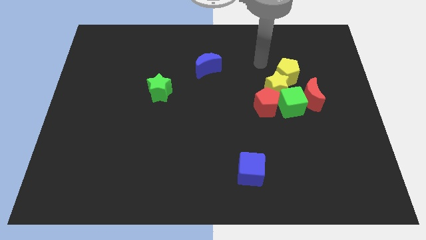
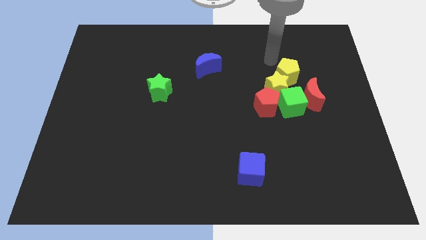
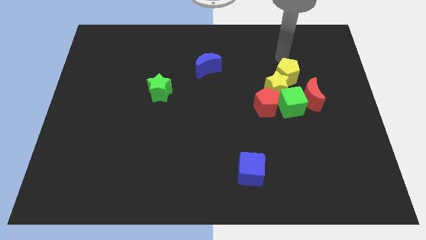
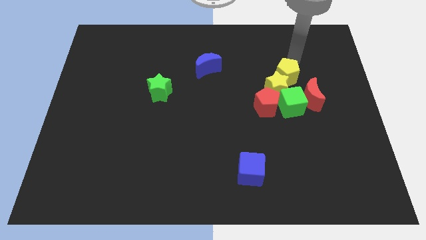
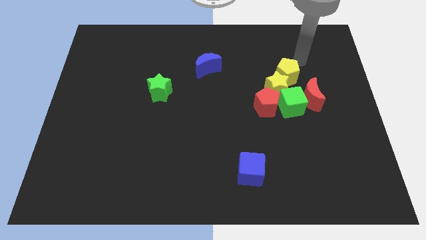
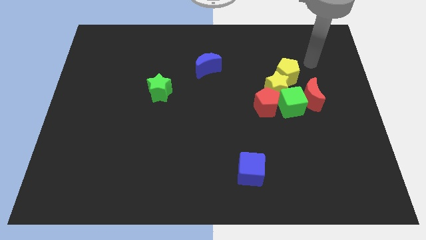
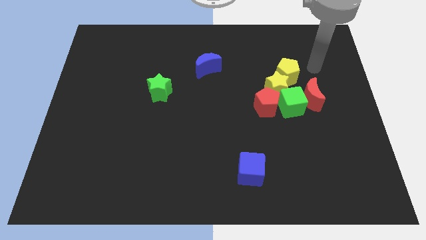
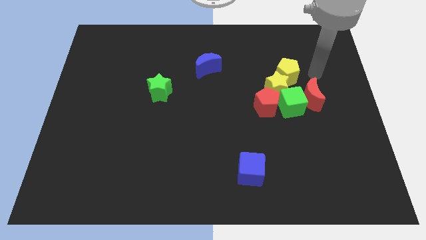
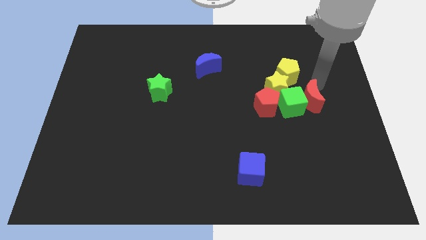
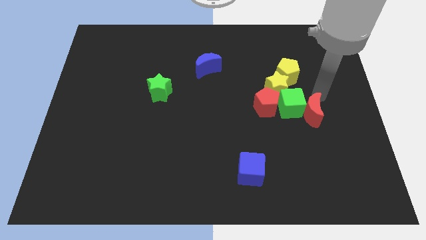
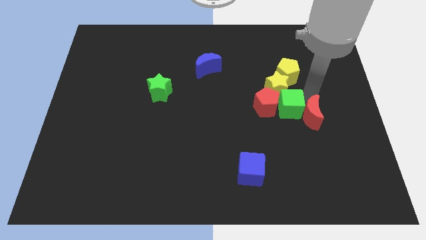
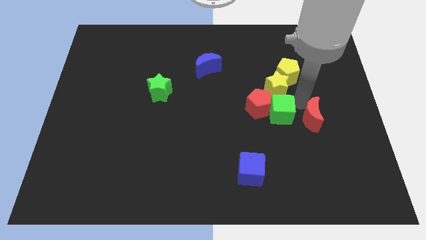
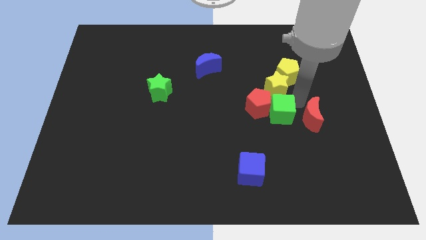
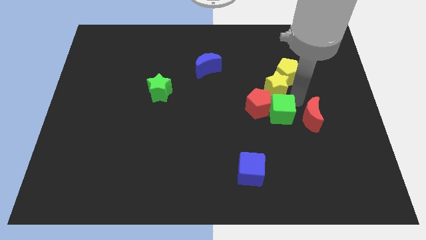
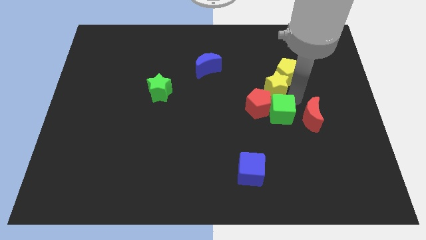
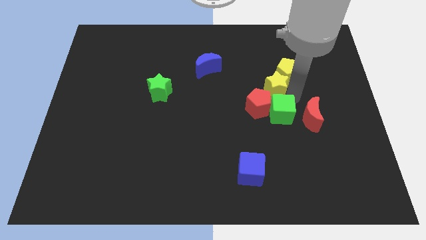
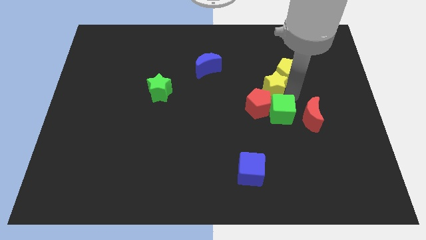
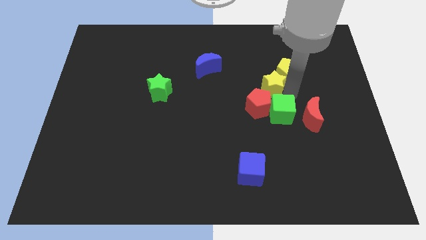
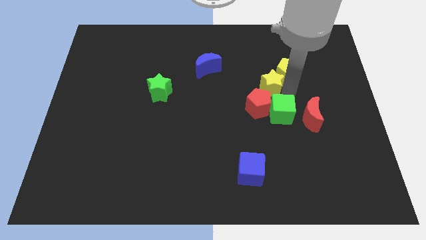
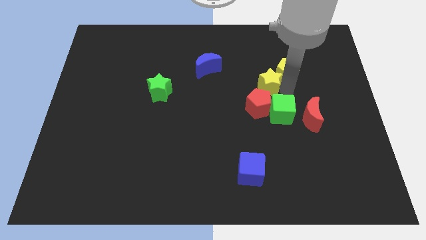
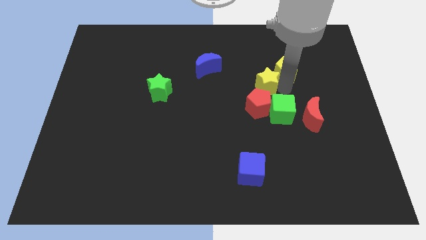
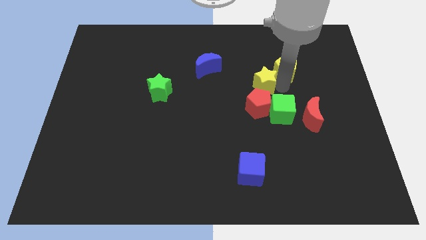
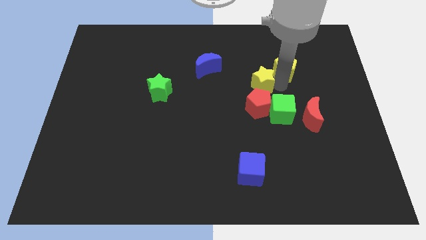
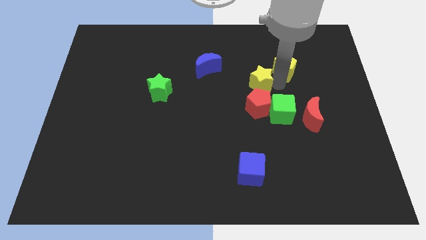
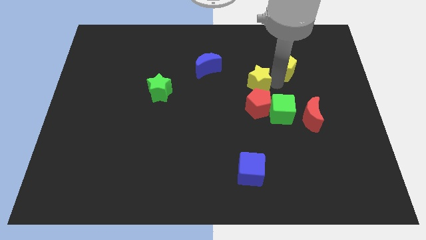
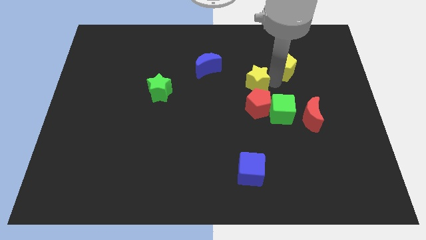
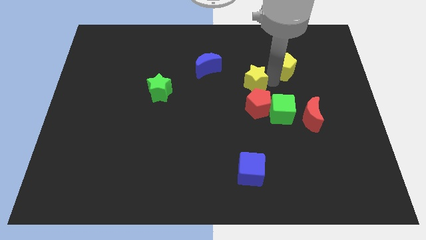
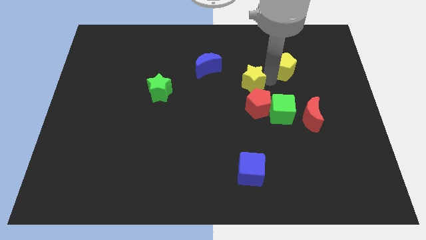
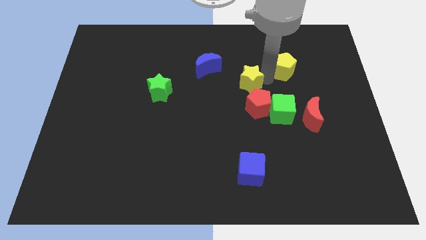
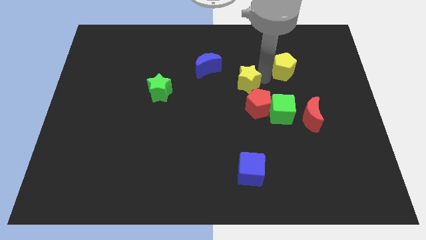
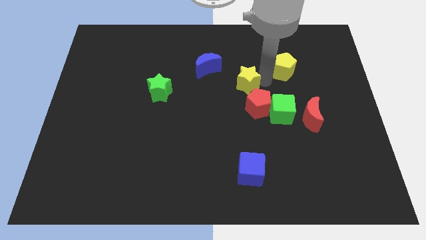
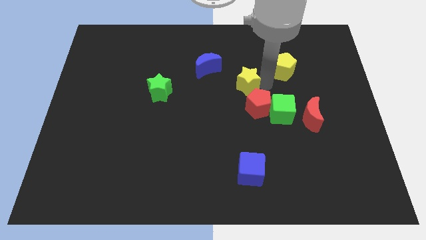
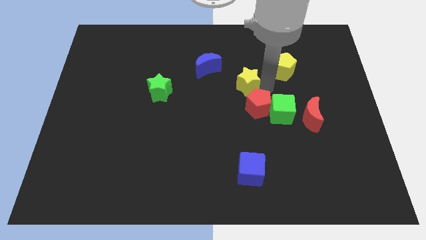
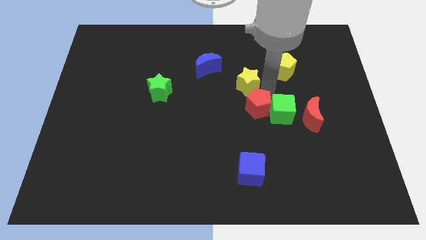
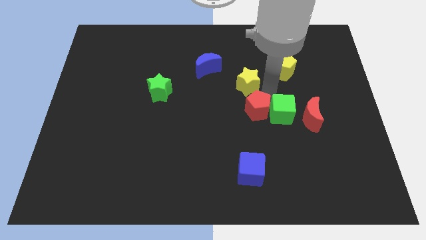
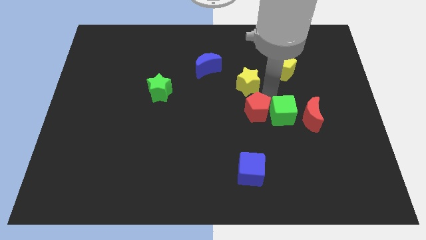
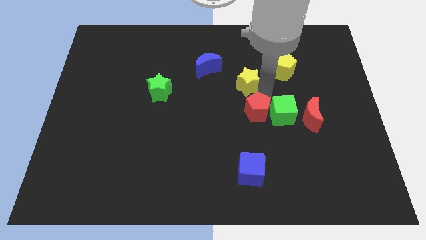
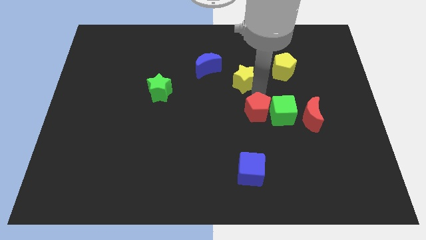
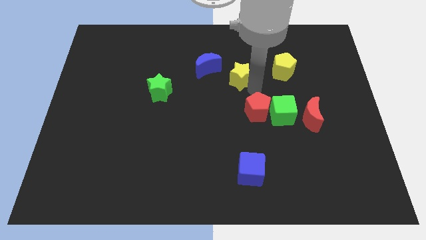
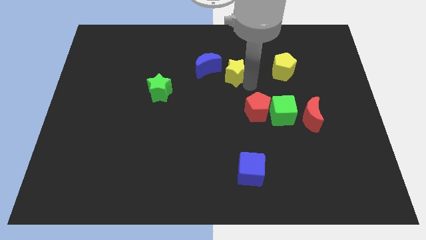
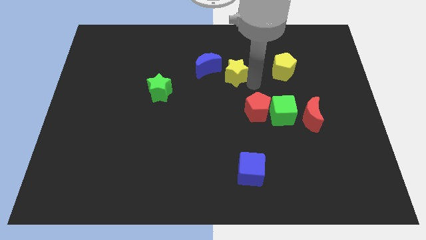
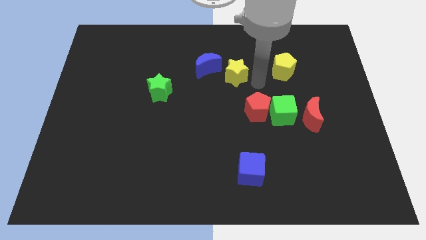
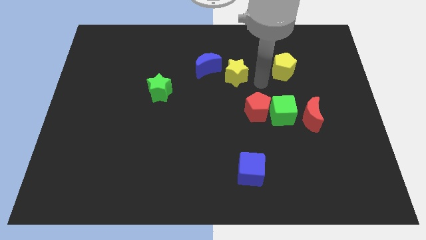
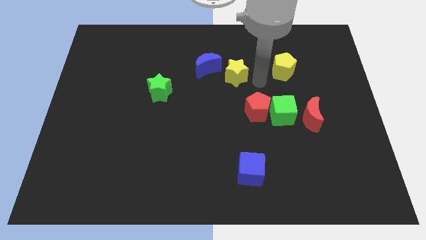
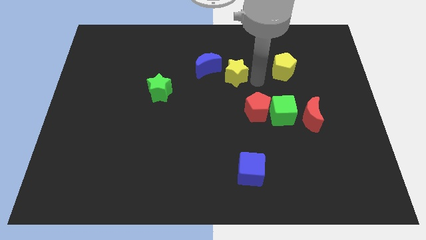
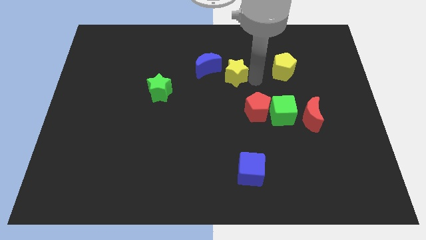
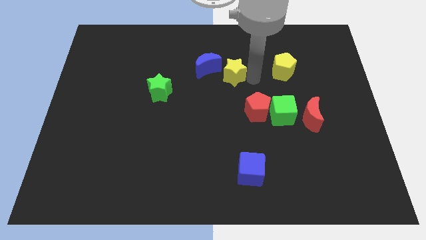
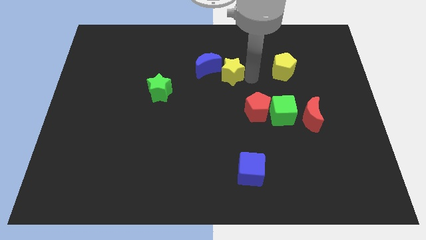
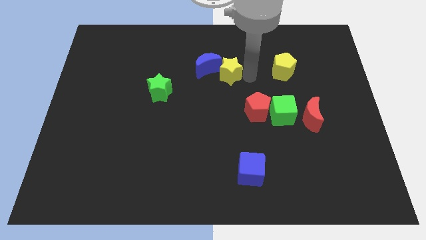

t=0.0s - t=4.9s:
push the yellow star next to the blue moon

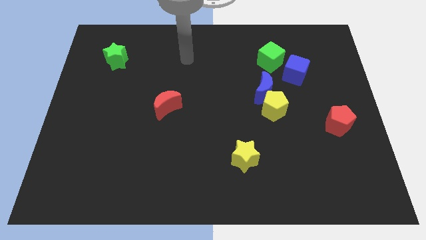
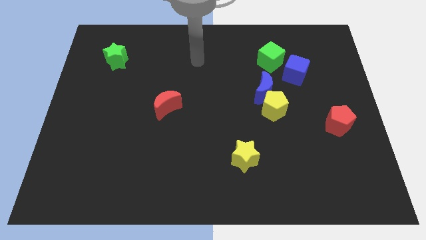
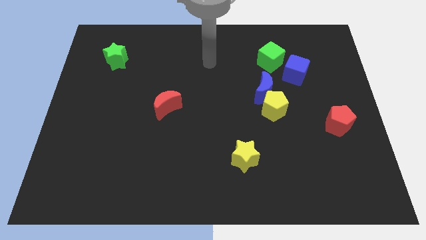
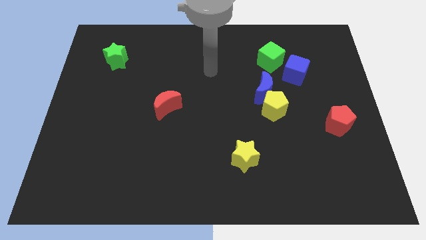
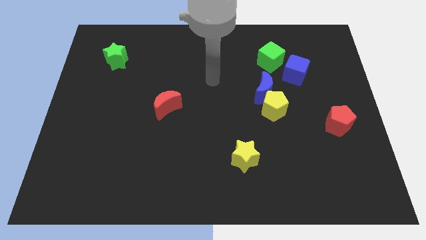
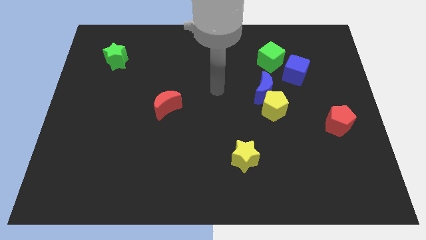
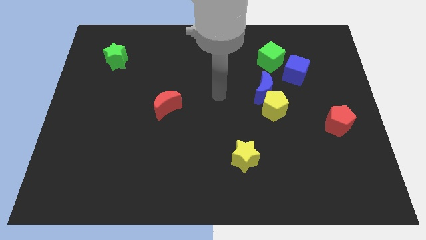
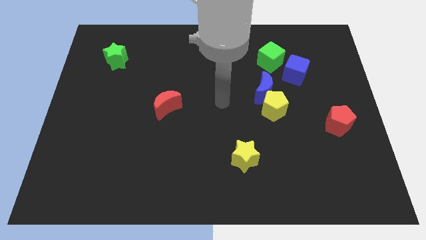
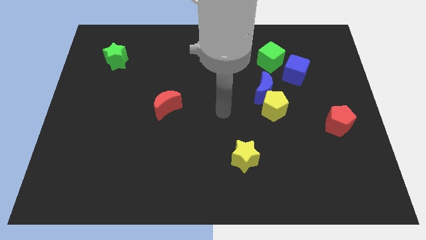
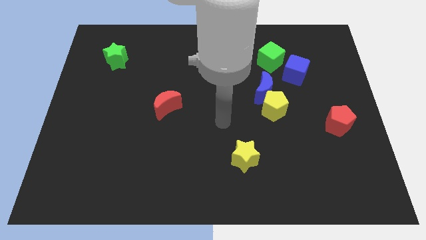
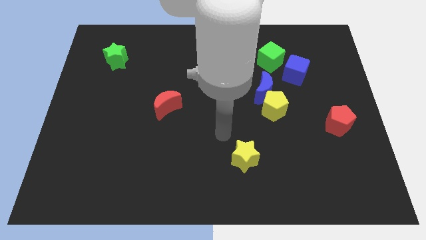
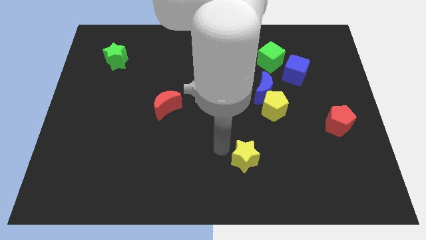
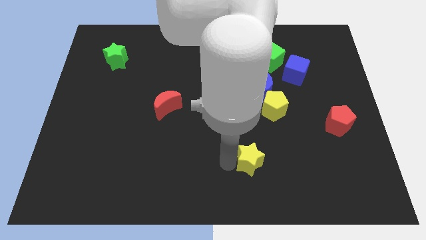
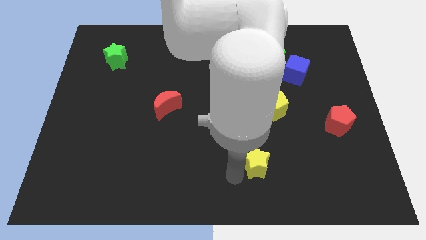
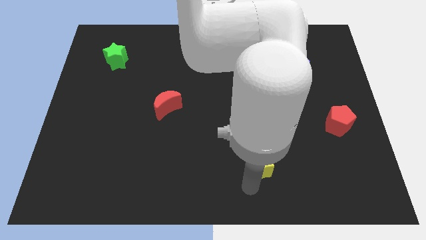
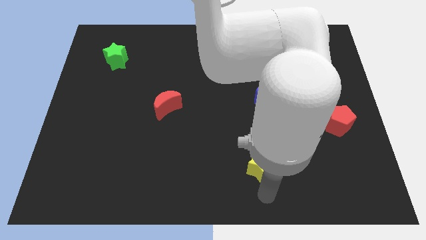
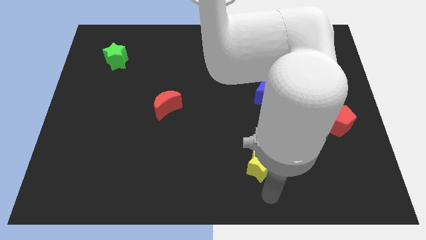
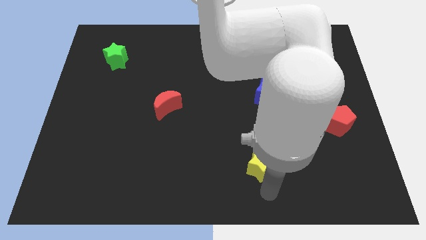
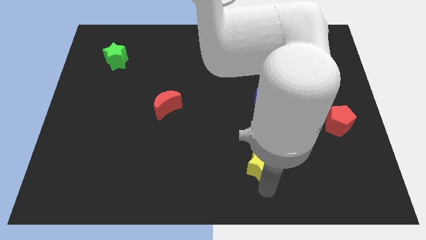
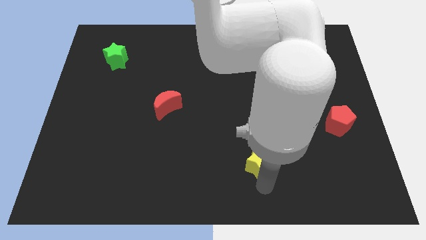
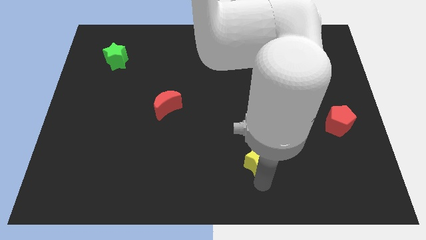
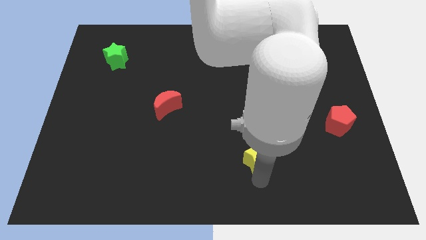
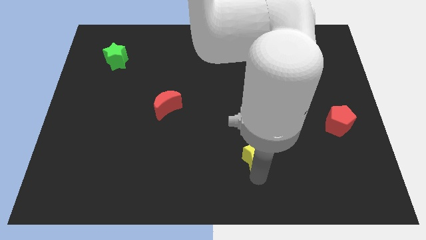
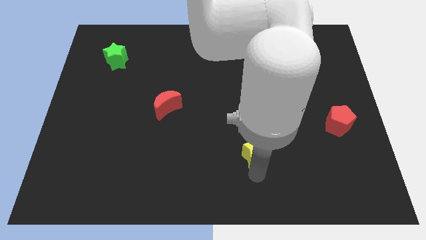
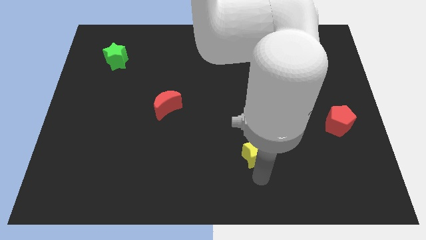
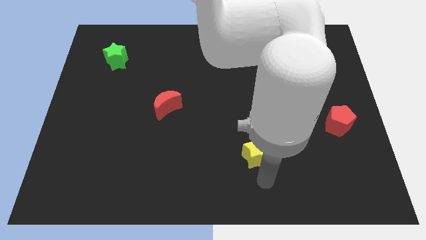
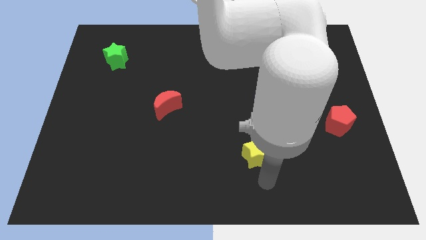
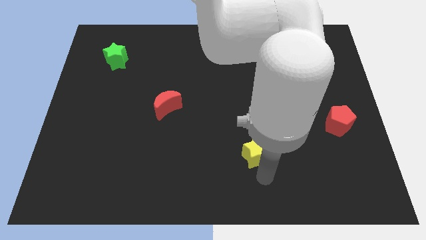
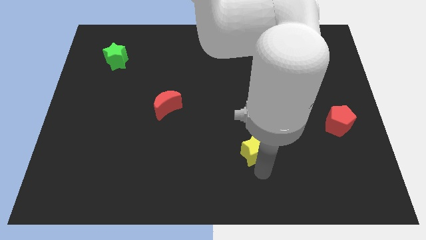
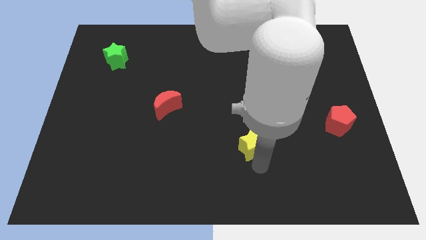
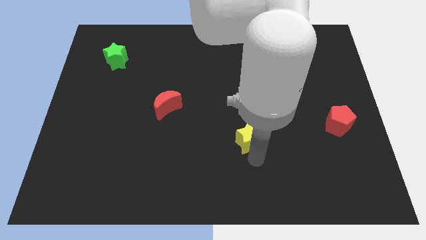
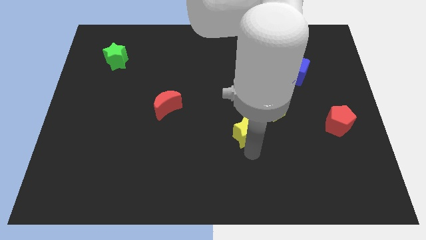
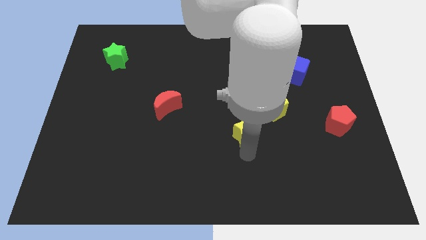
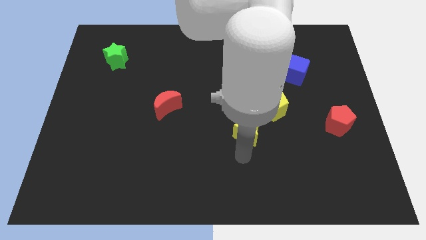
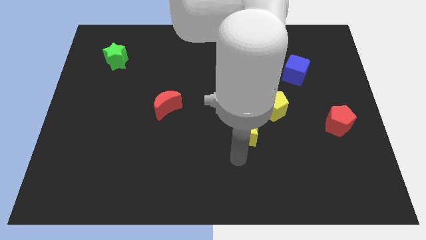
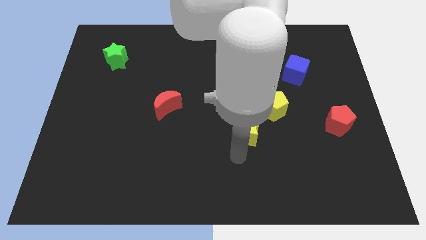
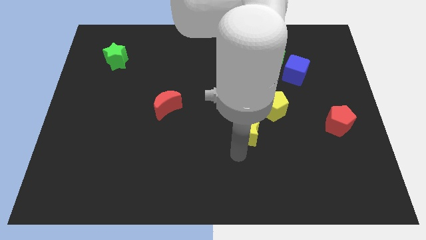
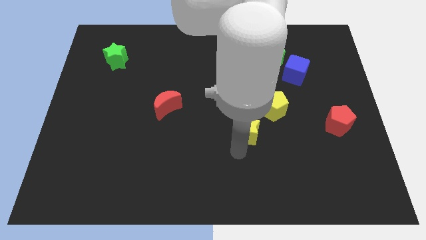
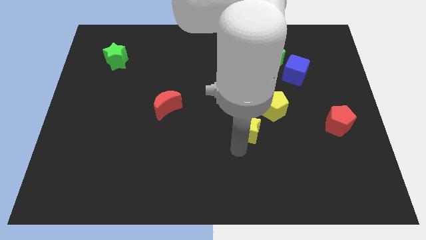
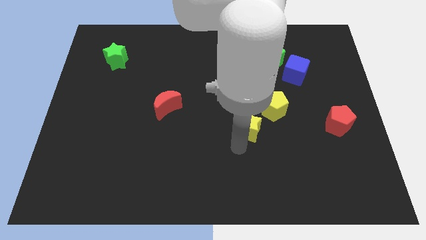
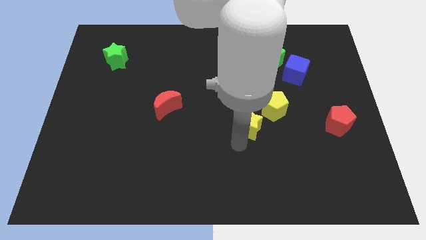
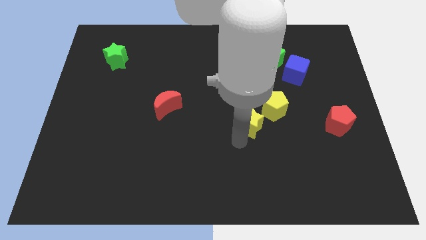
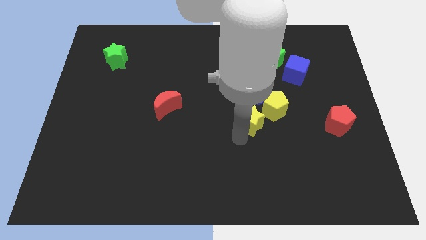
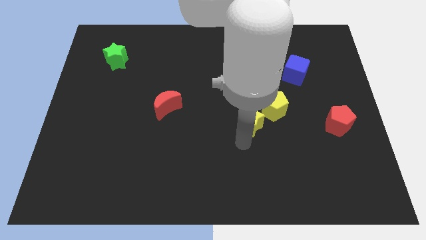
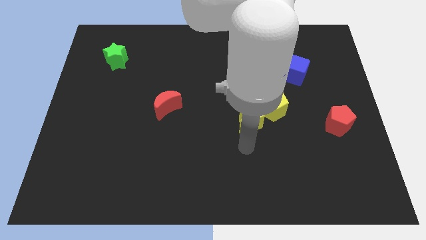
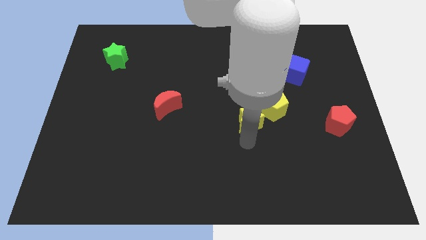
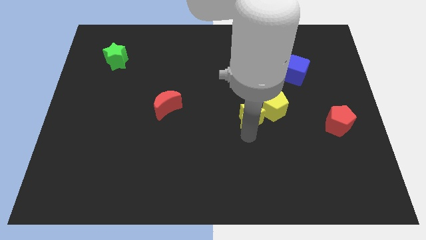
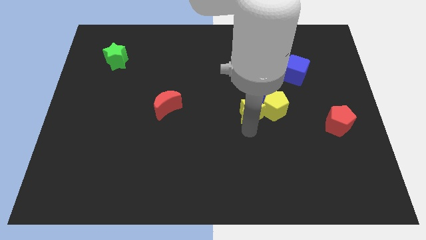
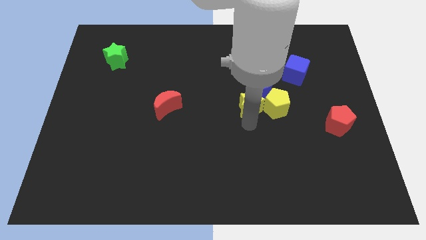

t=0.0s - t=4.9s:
slide the yellow star next to the blue moon
